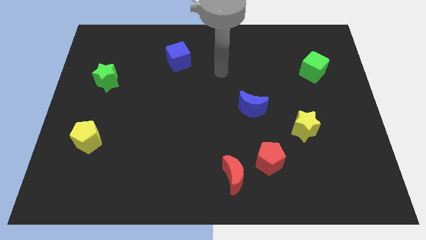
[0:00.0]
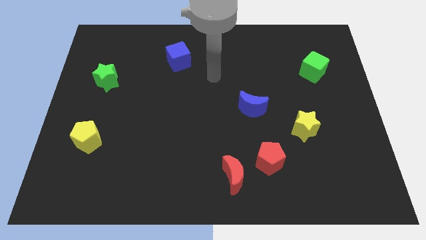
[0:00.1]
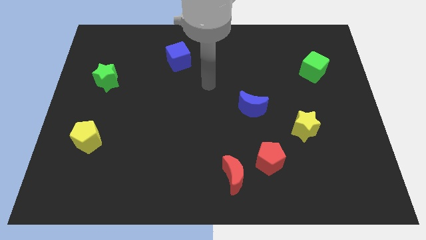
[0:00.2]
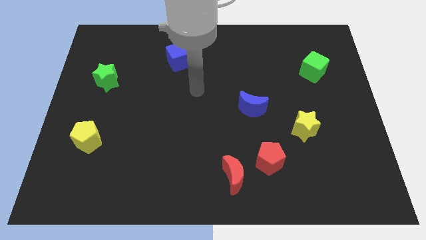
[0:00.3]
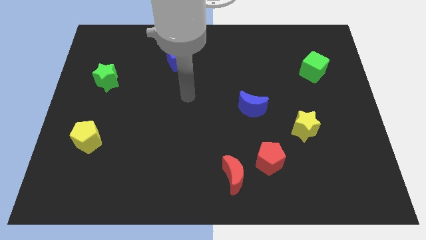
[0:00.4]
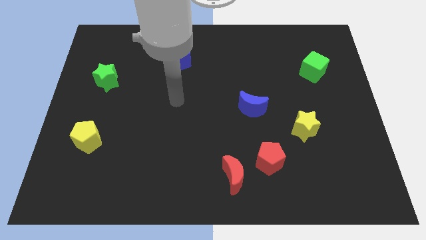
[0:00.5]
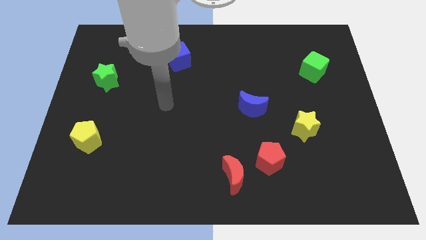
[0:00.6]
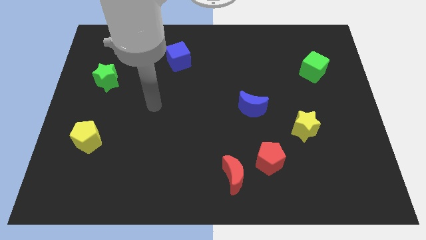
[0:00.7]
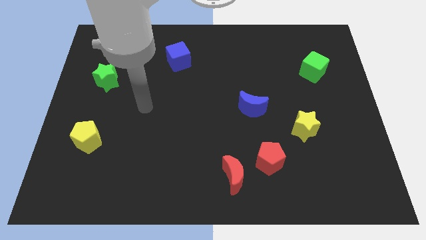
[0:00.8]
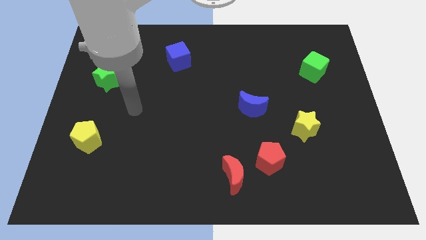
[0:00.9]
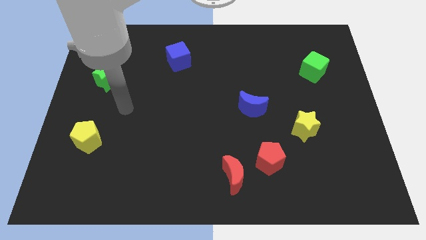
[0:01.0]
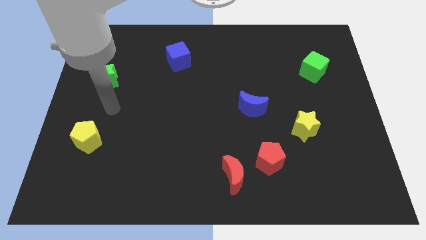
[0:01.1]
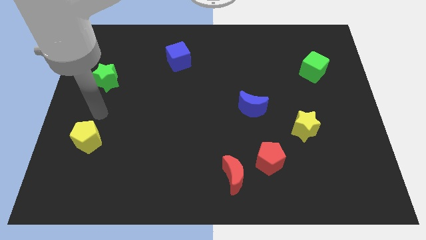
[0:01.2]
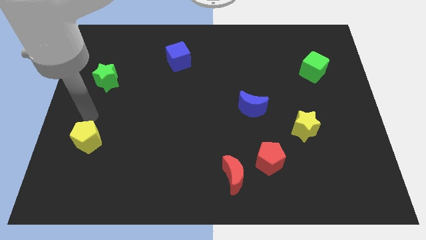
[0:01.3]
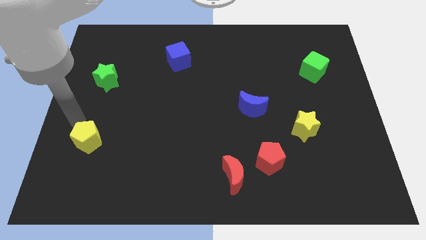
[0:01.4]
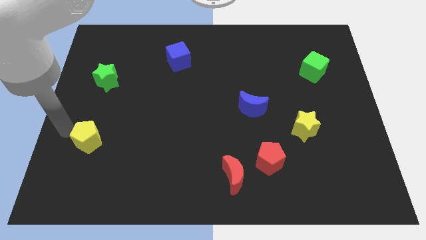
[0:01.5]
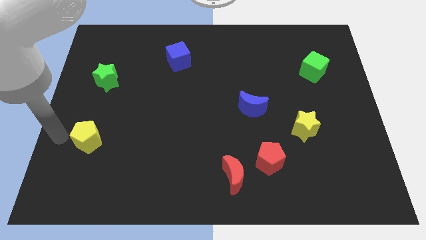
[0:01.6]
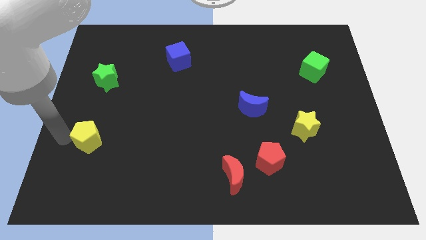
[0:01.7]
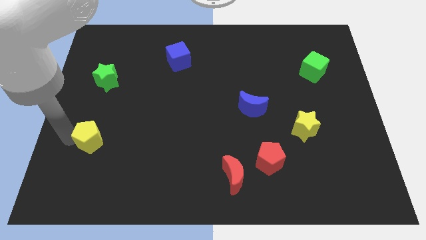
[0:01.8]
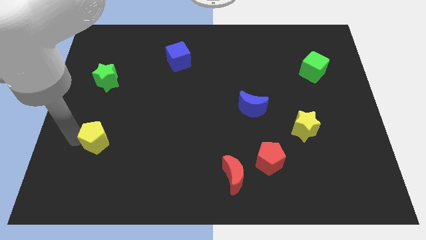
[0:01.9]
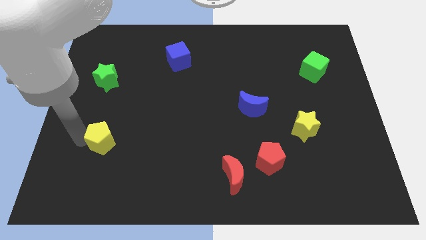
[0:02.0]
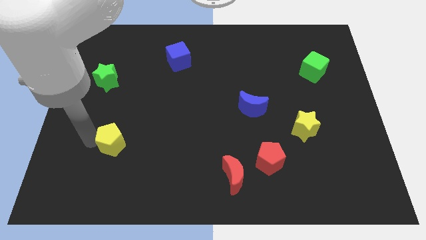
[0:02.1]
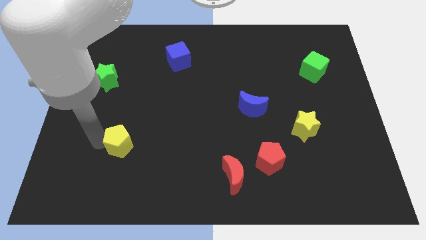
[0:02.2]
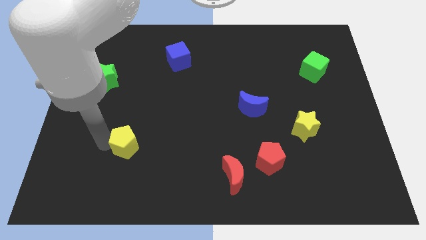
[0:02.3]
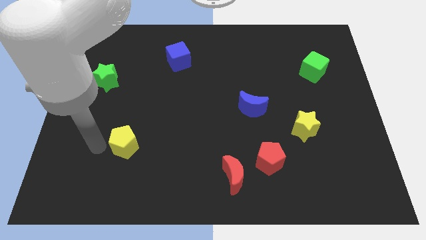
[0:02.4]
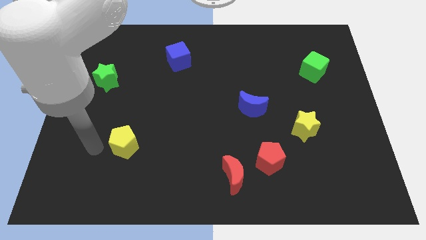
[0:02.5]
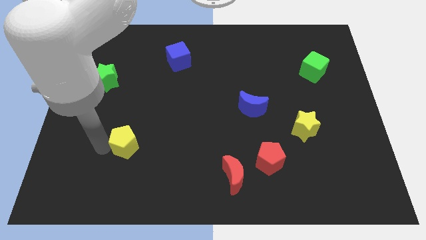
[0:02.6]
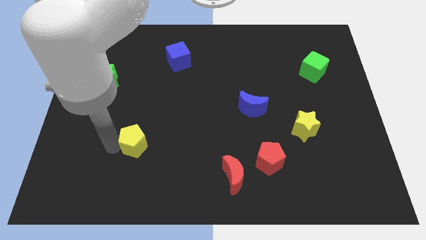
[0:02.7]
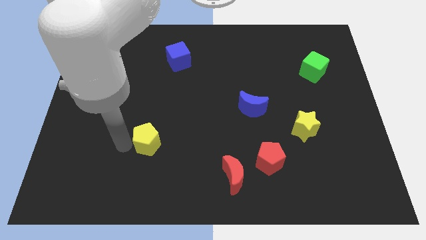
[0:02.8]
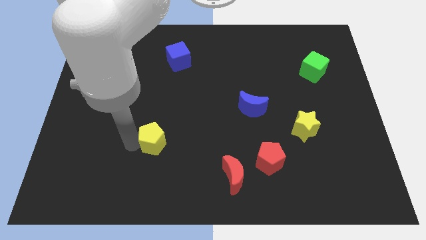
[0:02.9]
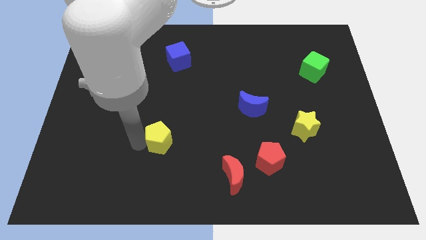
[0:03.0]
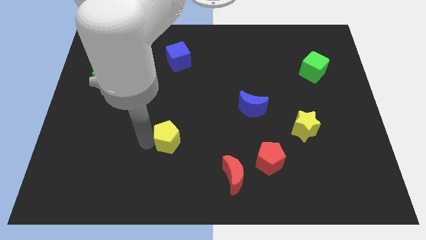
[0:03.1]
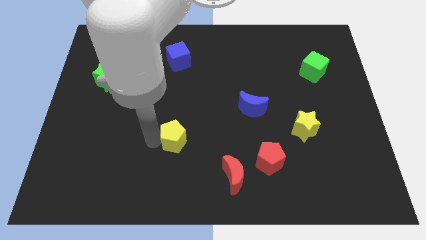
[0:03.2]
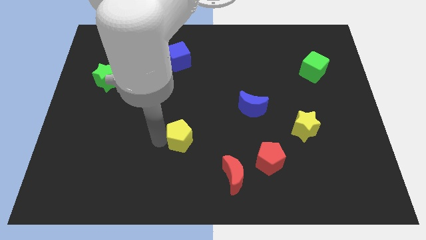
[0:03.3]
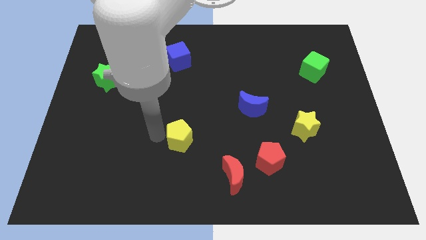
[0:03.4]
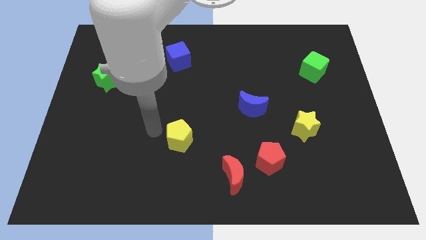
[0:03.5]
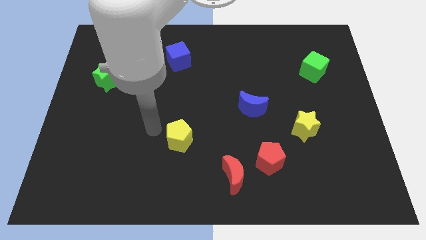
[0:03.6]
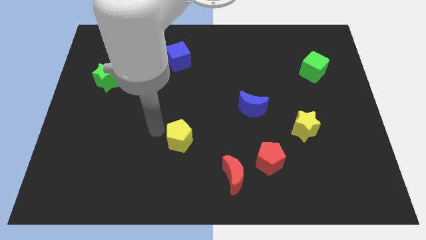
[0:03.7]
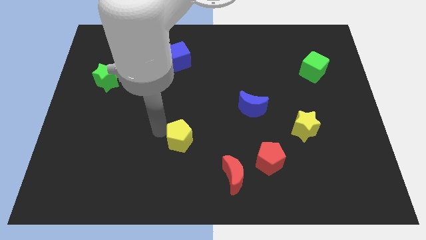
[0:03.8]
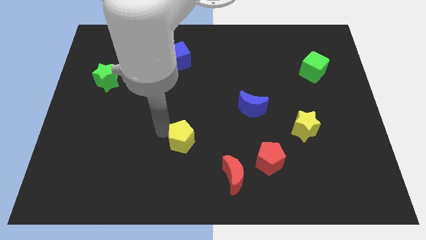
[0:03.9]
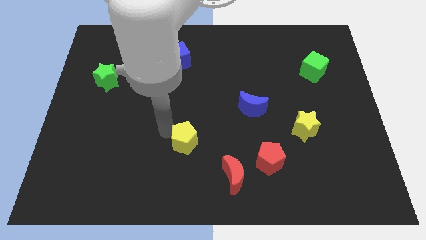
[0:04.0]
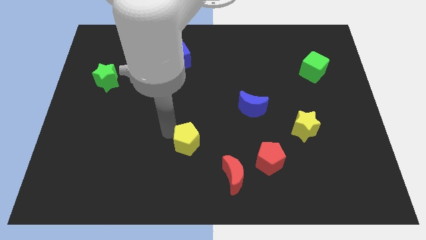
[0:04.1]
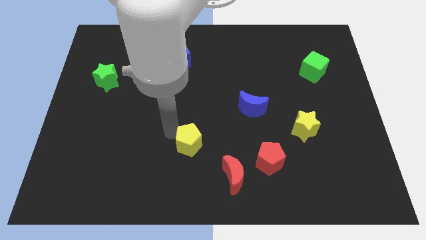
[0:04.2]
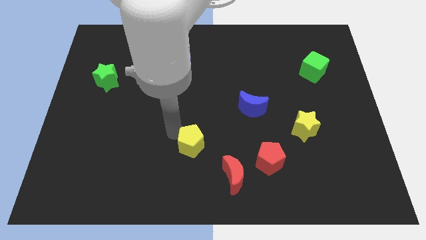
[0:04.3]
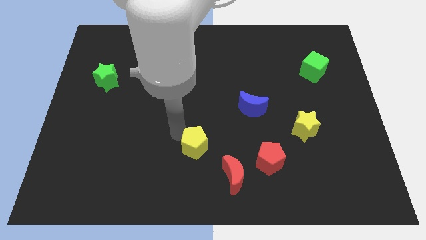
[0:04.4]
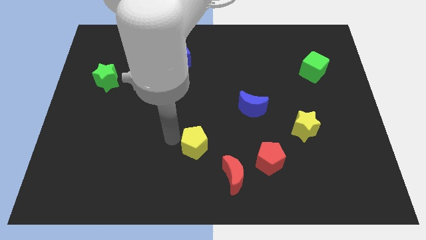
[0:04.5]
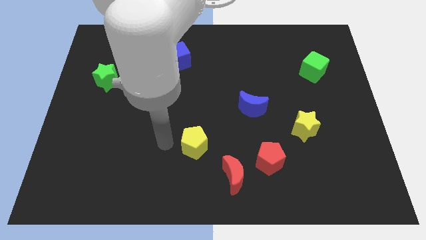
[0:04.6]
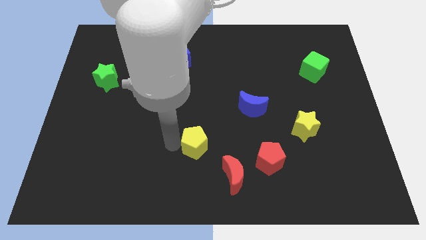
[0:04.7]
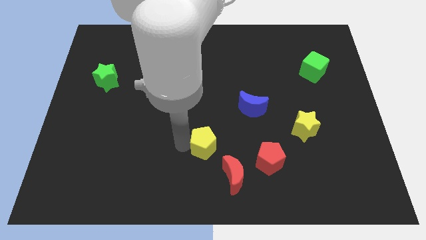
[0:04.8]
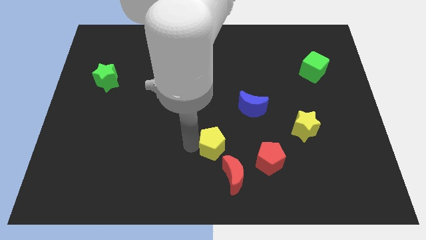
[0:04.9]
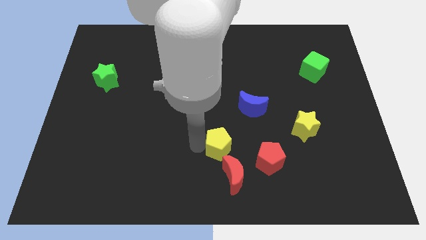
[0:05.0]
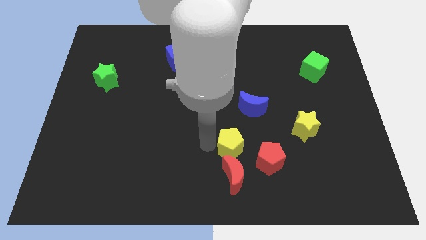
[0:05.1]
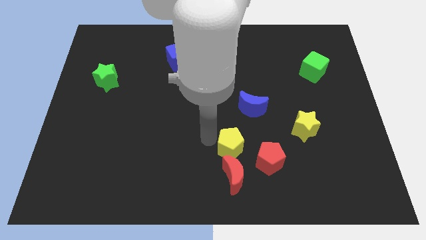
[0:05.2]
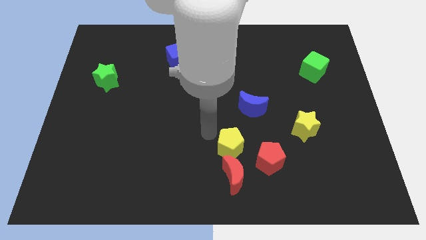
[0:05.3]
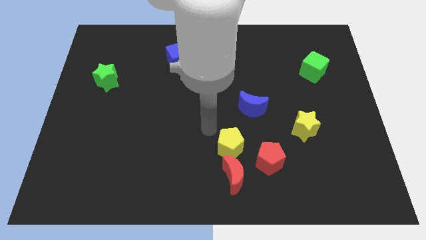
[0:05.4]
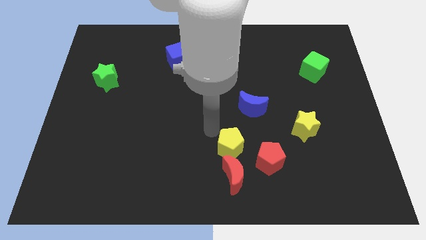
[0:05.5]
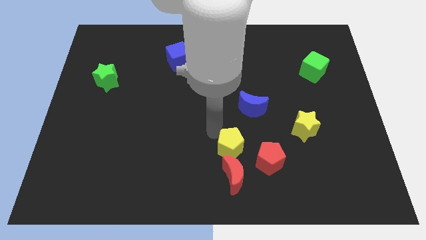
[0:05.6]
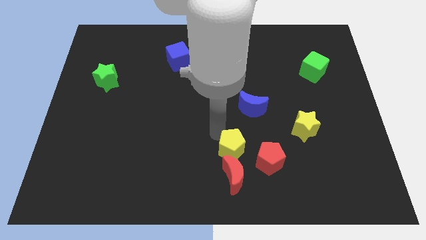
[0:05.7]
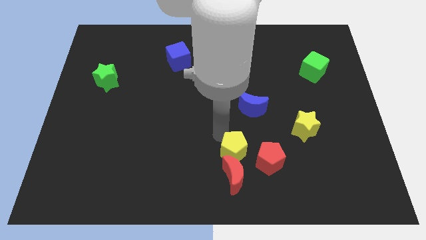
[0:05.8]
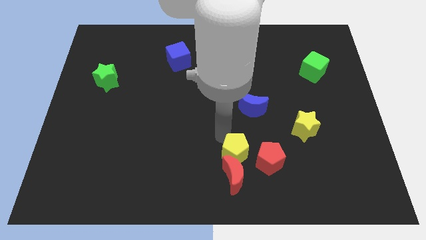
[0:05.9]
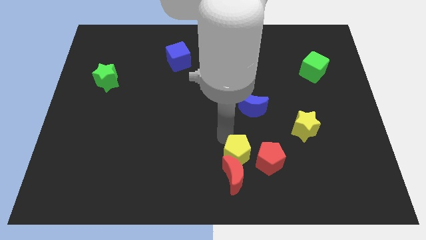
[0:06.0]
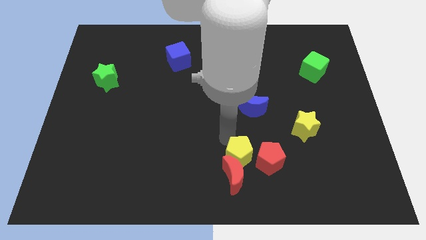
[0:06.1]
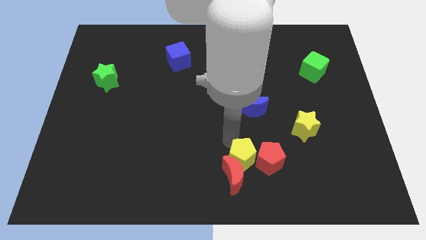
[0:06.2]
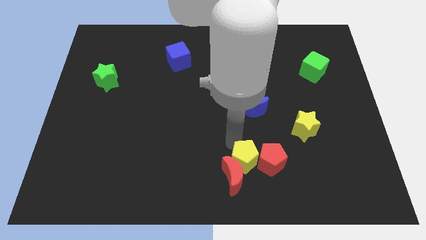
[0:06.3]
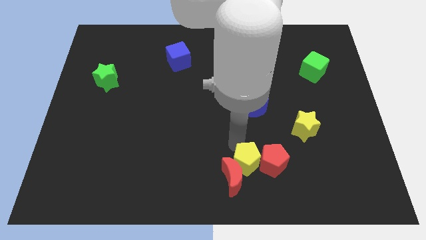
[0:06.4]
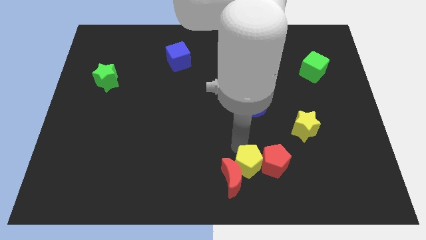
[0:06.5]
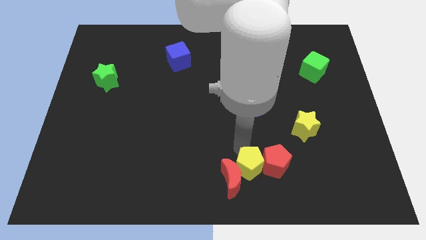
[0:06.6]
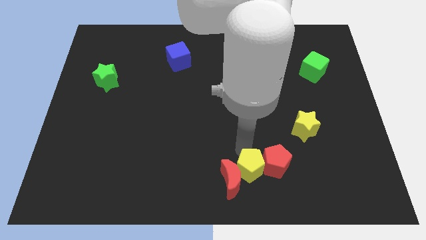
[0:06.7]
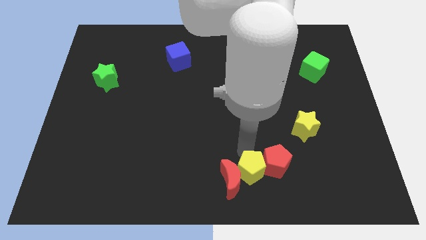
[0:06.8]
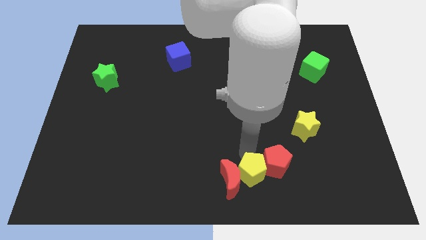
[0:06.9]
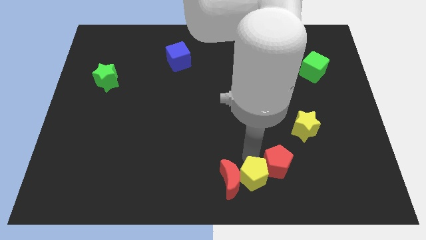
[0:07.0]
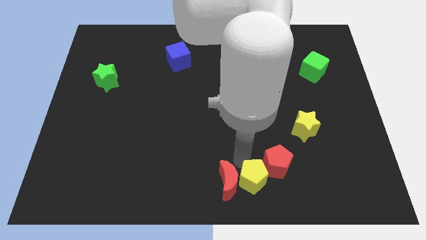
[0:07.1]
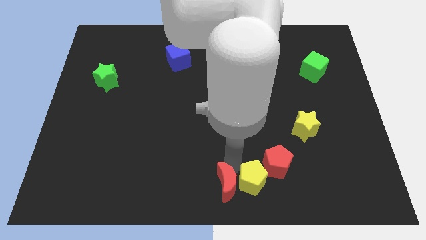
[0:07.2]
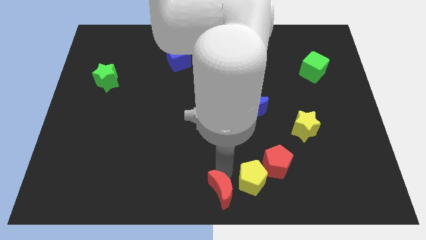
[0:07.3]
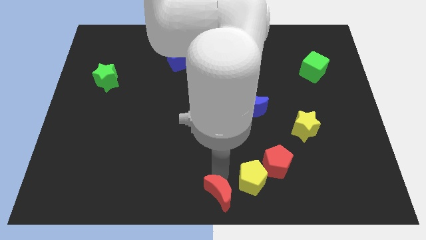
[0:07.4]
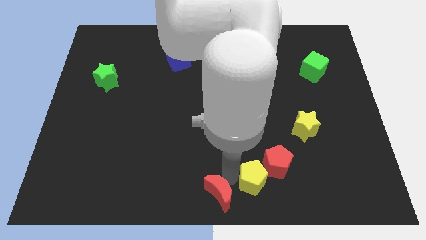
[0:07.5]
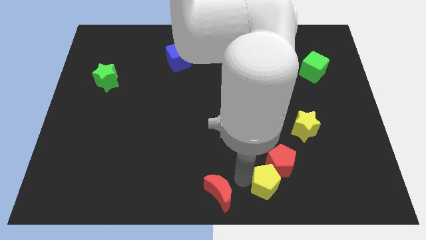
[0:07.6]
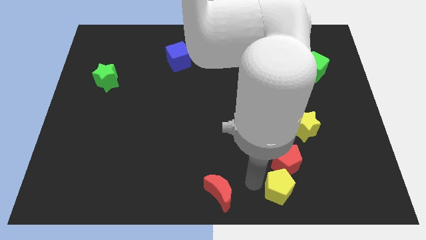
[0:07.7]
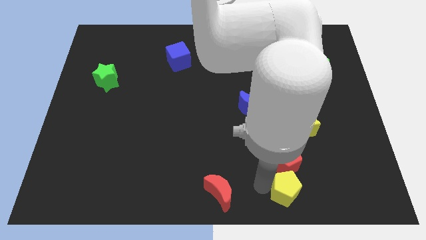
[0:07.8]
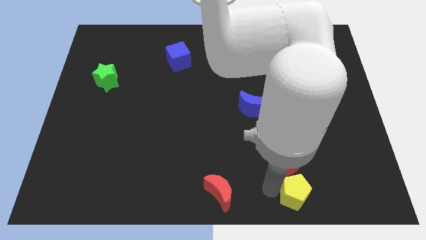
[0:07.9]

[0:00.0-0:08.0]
put the yellow pentagon diagonally down and to the right of the red pentagon
